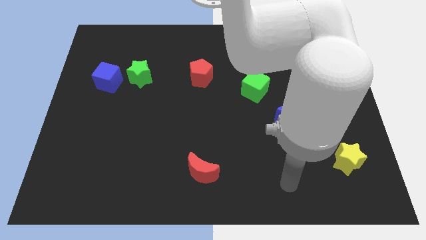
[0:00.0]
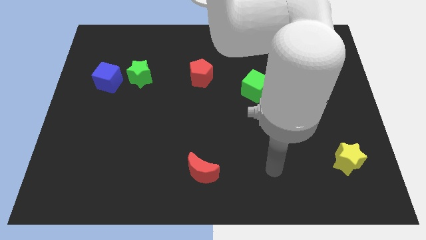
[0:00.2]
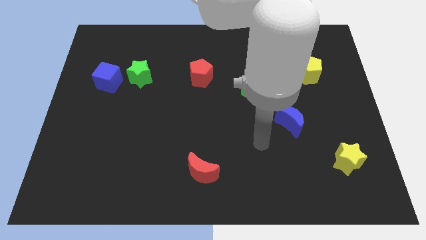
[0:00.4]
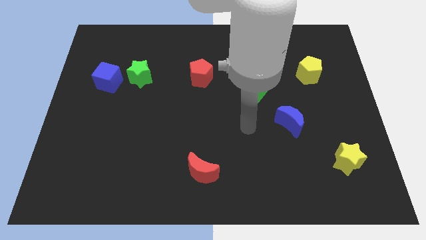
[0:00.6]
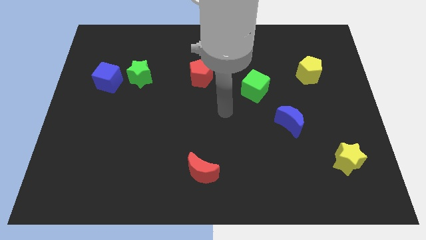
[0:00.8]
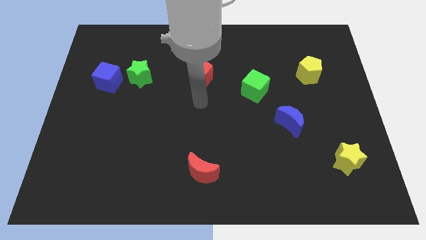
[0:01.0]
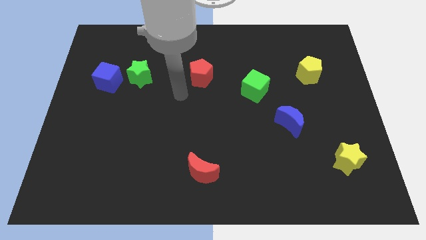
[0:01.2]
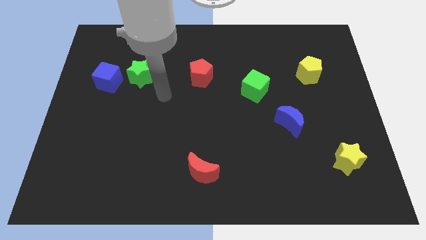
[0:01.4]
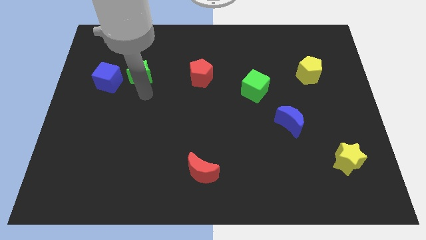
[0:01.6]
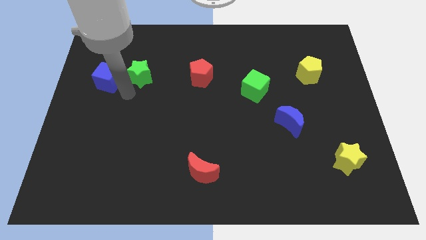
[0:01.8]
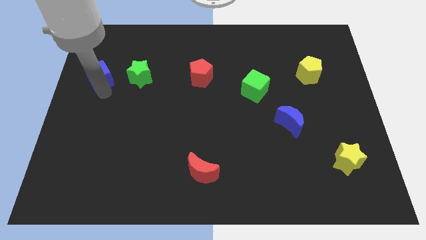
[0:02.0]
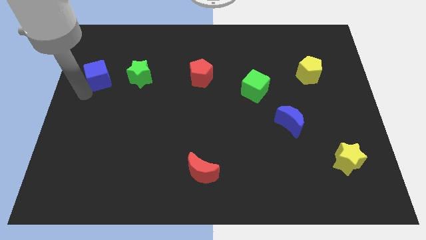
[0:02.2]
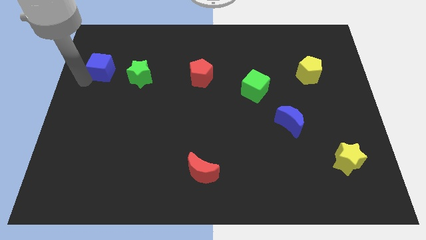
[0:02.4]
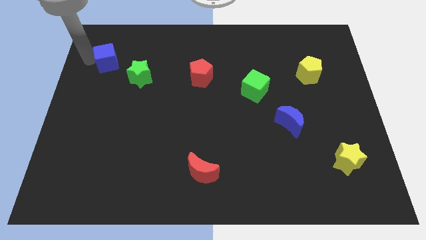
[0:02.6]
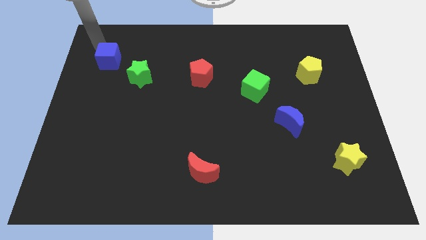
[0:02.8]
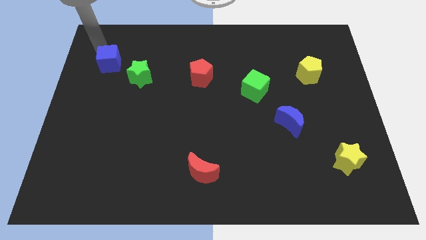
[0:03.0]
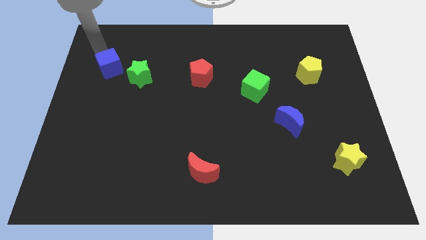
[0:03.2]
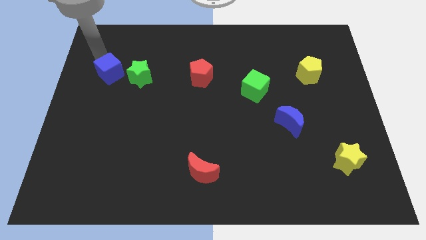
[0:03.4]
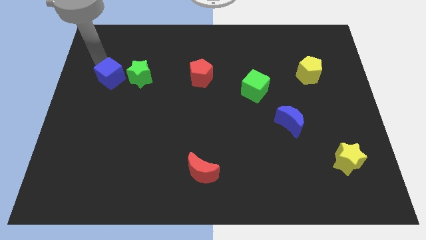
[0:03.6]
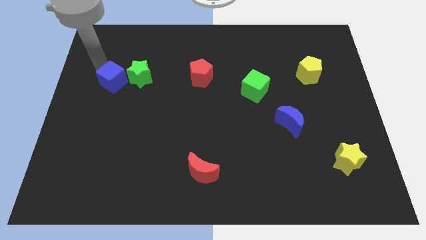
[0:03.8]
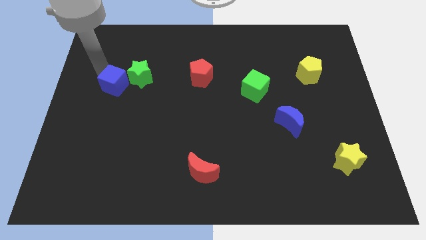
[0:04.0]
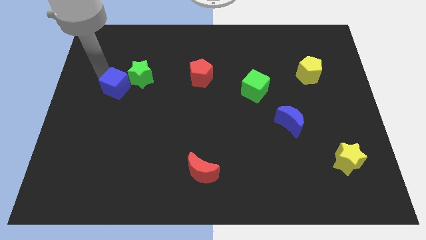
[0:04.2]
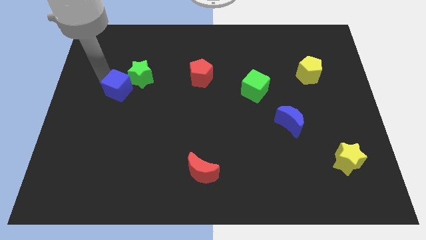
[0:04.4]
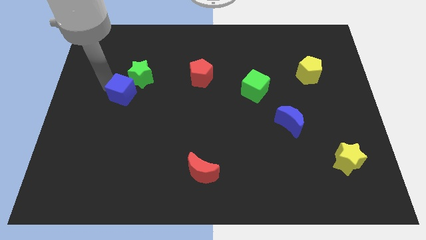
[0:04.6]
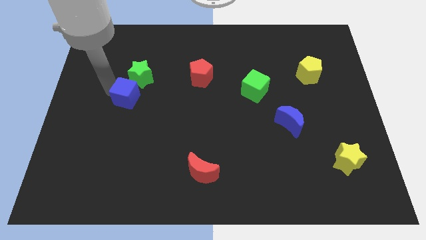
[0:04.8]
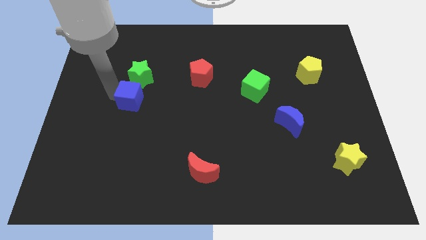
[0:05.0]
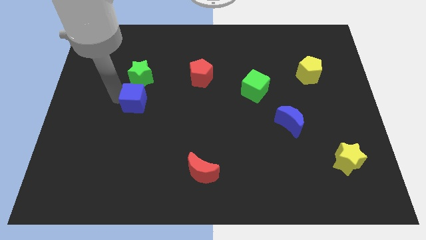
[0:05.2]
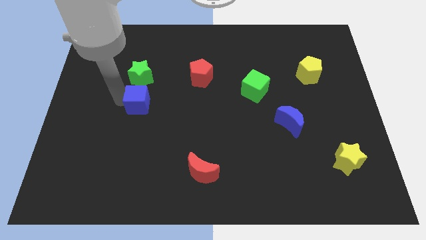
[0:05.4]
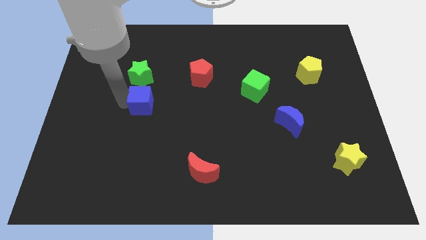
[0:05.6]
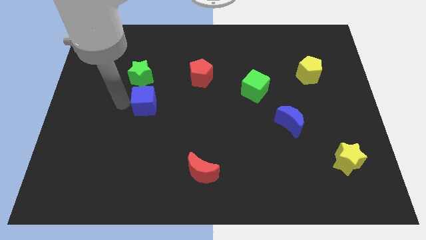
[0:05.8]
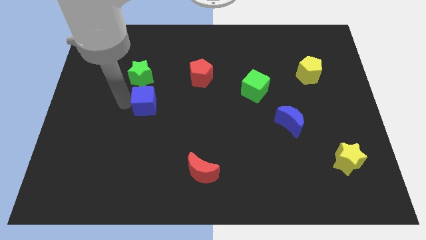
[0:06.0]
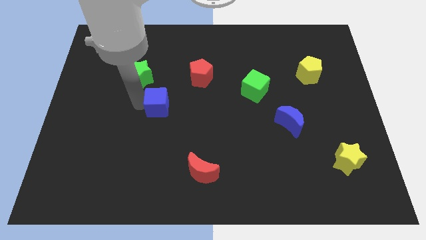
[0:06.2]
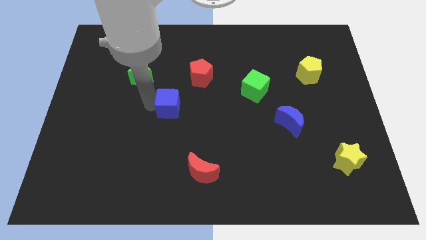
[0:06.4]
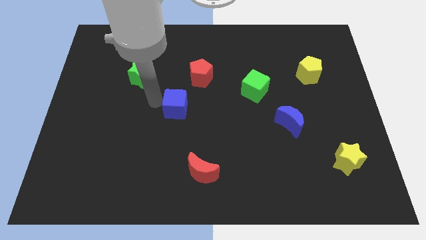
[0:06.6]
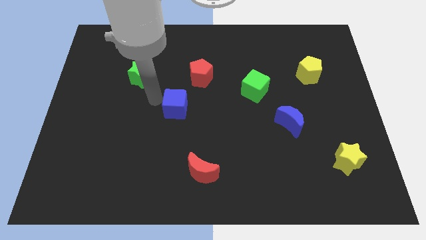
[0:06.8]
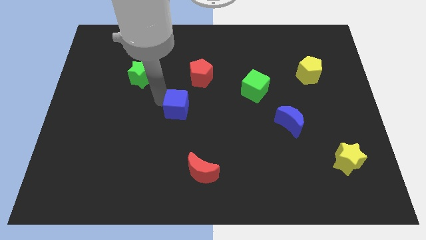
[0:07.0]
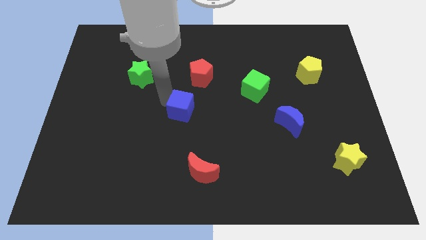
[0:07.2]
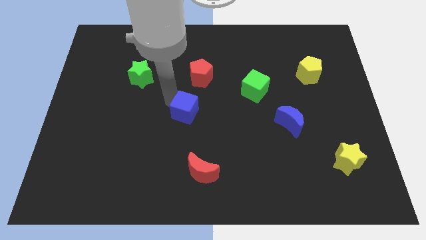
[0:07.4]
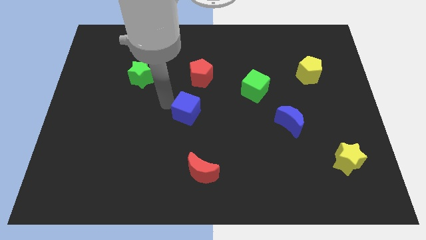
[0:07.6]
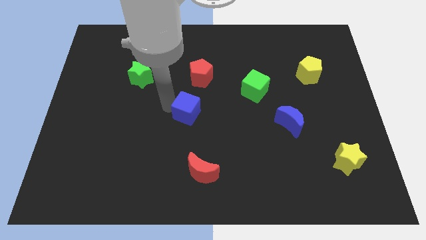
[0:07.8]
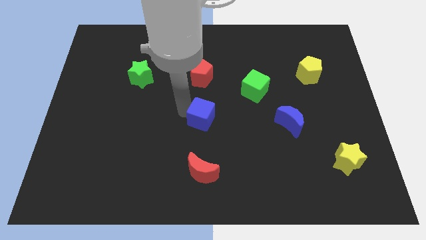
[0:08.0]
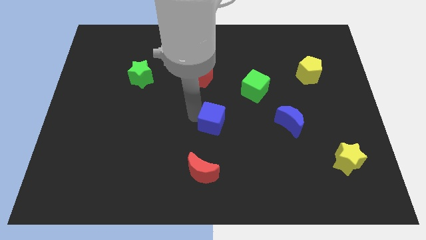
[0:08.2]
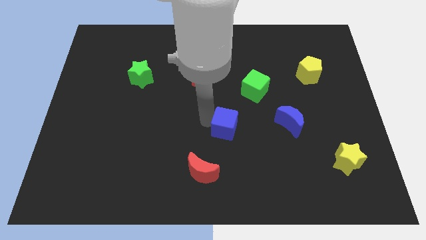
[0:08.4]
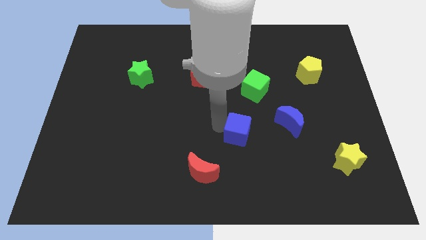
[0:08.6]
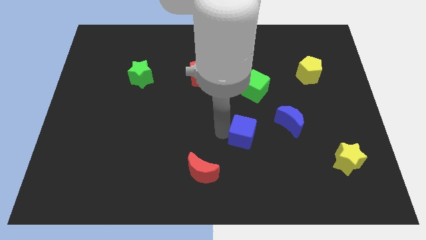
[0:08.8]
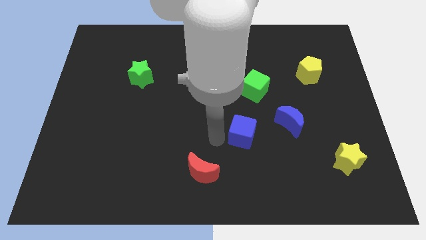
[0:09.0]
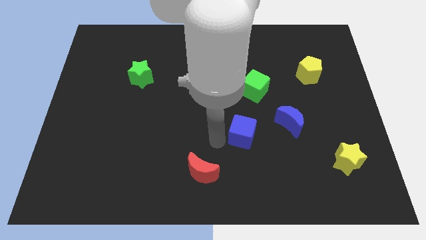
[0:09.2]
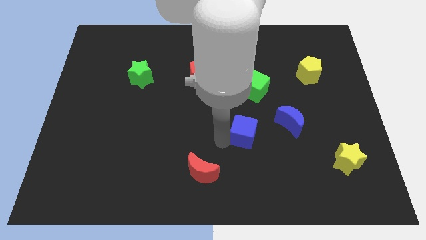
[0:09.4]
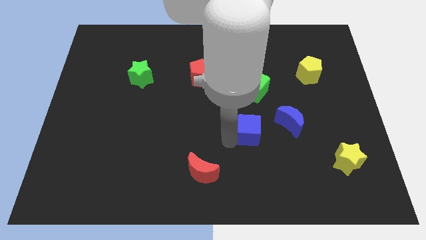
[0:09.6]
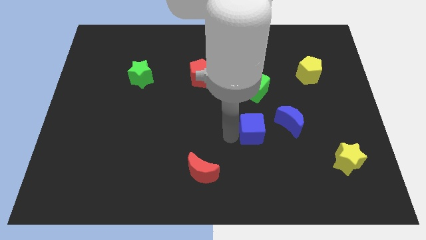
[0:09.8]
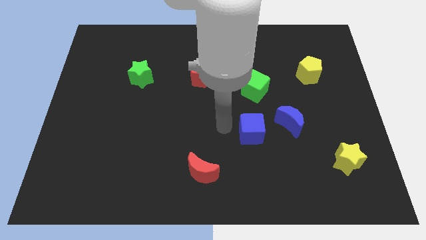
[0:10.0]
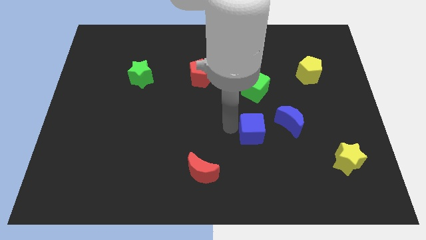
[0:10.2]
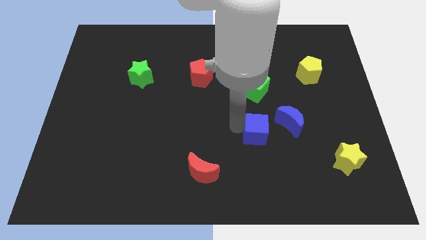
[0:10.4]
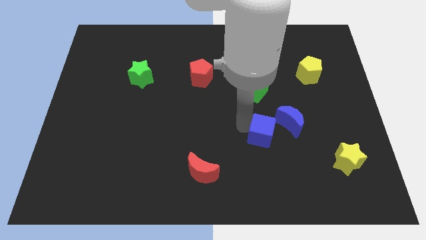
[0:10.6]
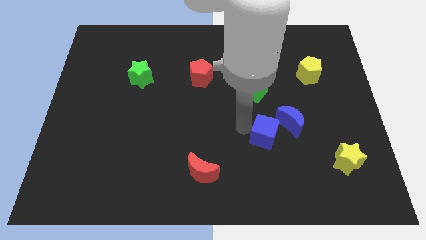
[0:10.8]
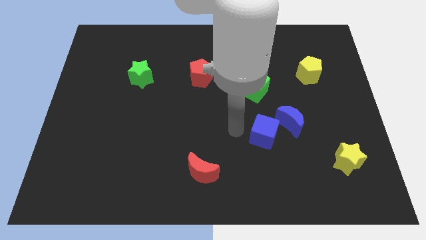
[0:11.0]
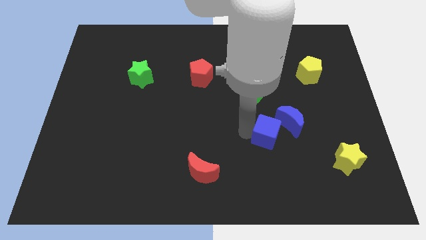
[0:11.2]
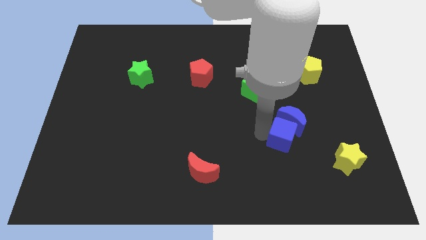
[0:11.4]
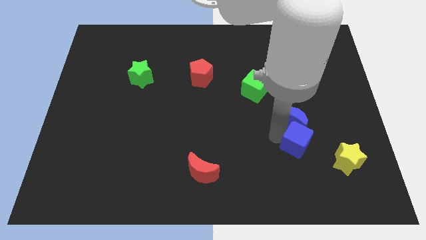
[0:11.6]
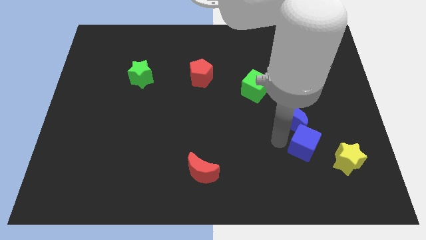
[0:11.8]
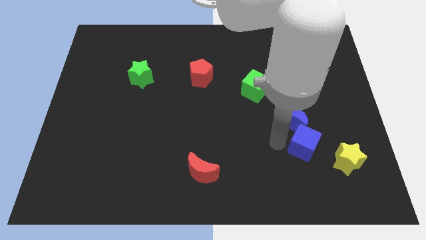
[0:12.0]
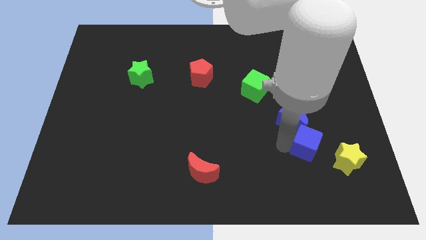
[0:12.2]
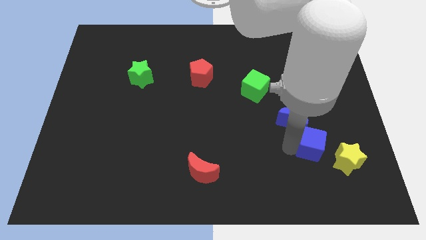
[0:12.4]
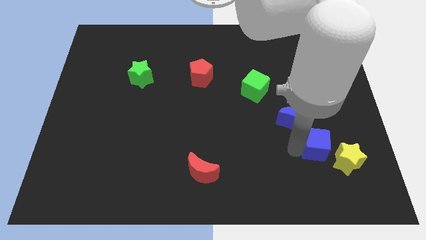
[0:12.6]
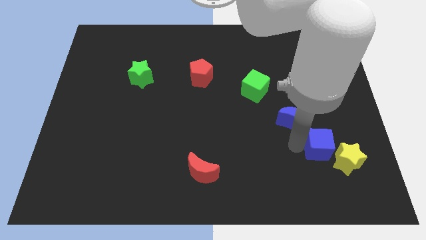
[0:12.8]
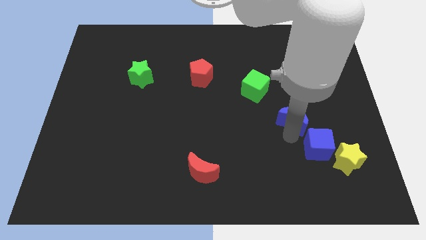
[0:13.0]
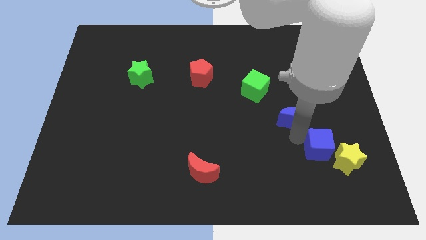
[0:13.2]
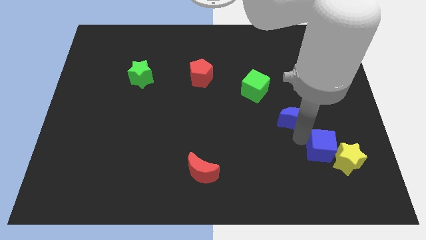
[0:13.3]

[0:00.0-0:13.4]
move the blue cube towards the yellow star
